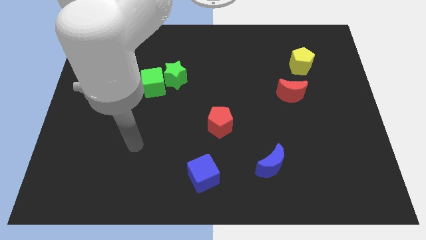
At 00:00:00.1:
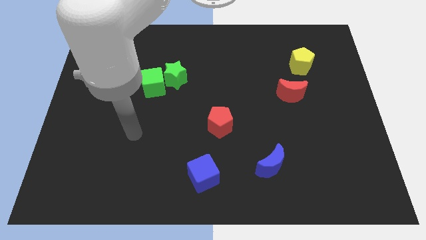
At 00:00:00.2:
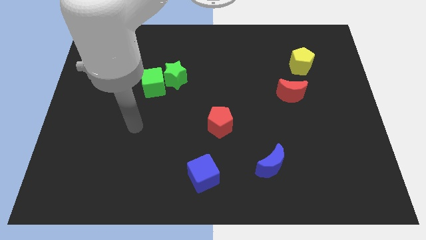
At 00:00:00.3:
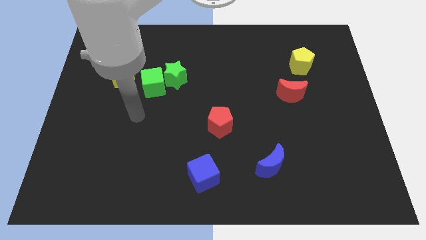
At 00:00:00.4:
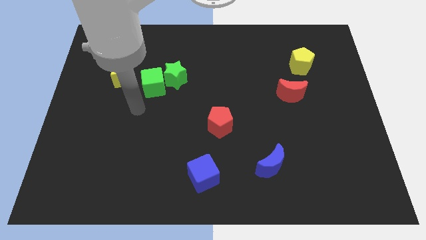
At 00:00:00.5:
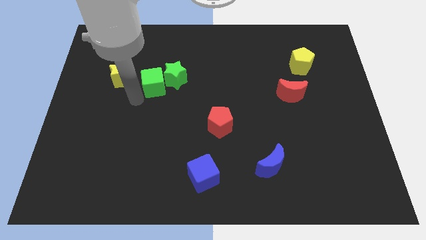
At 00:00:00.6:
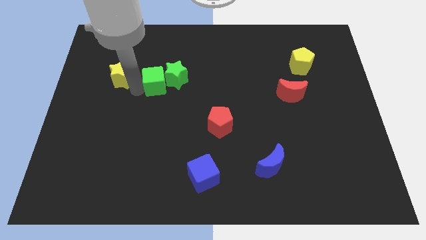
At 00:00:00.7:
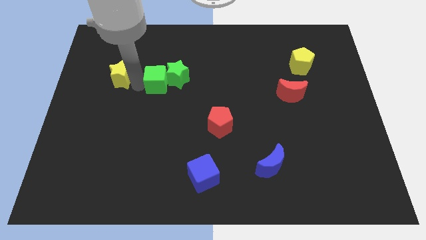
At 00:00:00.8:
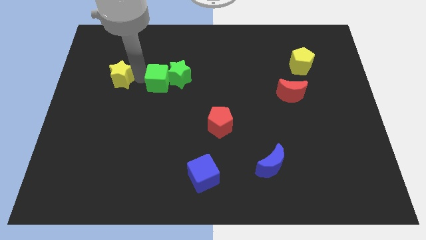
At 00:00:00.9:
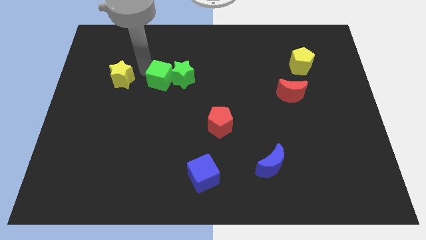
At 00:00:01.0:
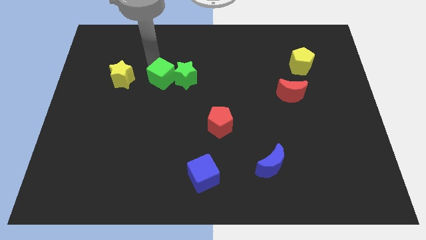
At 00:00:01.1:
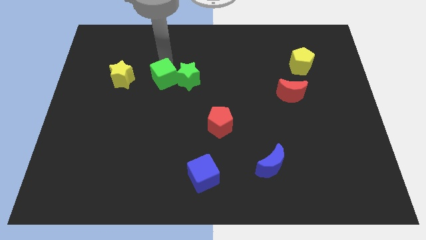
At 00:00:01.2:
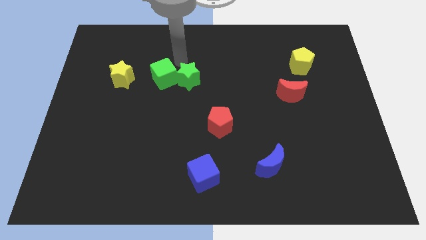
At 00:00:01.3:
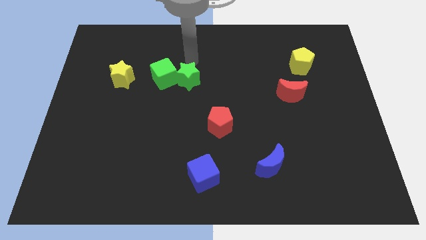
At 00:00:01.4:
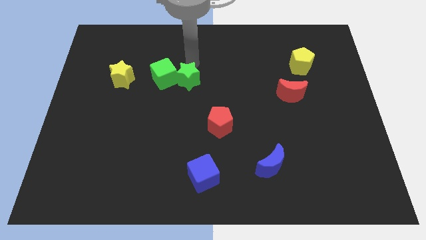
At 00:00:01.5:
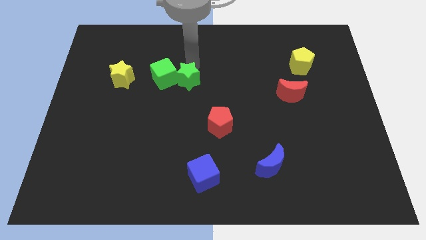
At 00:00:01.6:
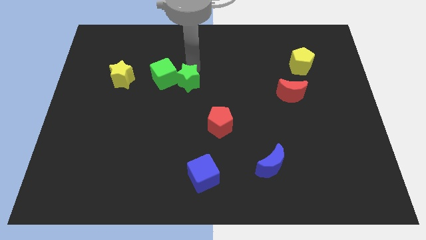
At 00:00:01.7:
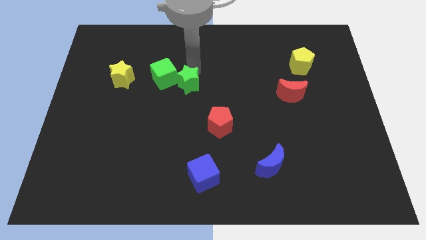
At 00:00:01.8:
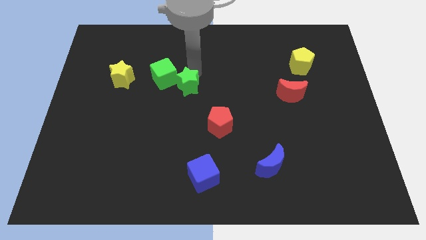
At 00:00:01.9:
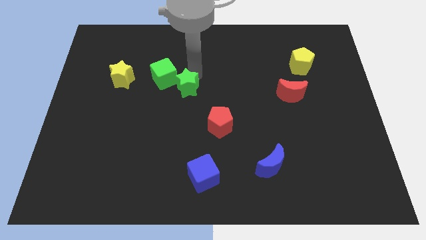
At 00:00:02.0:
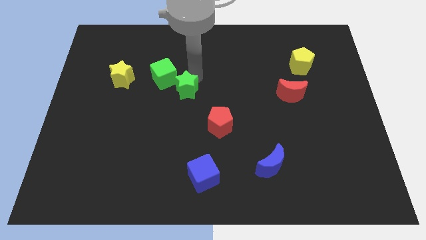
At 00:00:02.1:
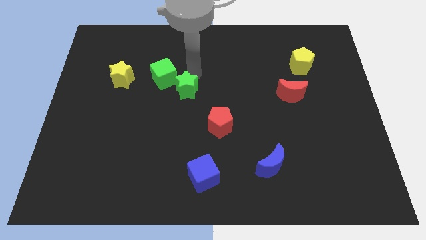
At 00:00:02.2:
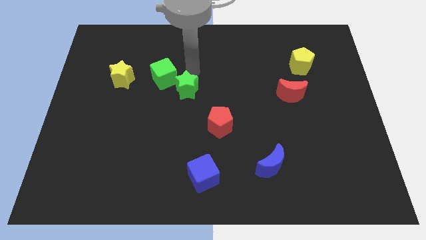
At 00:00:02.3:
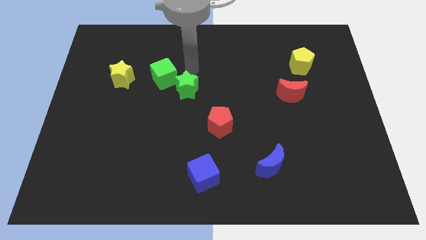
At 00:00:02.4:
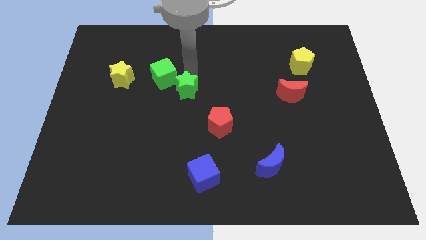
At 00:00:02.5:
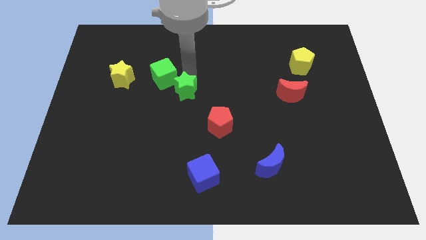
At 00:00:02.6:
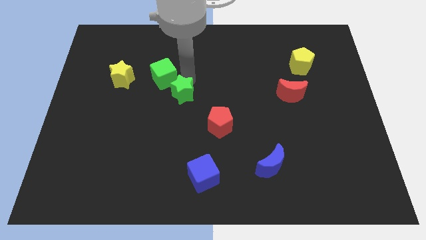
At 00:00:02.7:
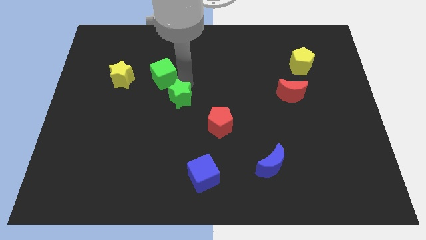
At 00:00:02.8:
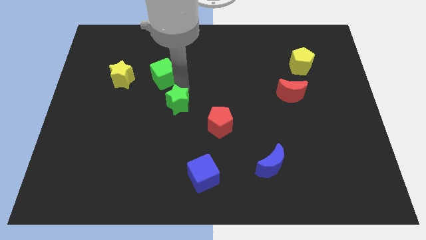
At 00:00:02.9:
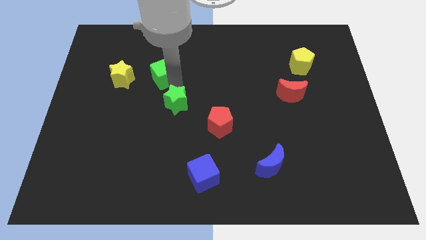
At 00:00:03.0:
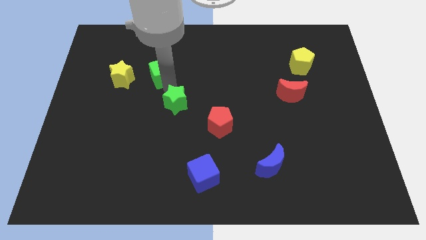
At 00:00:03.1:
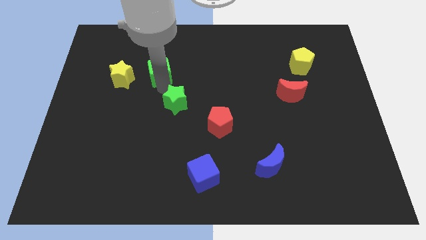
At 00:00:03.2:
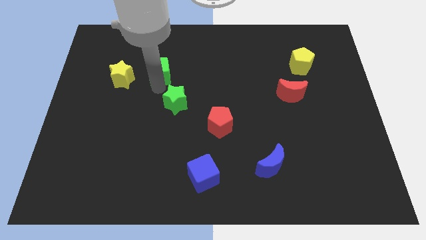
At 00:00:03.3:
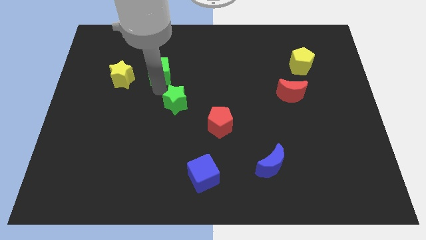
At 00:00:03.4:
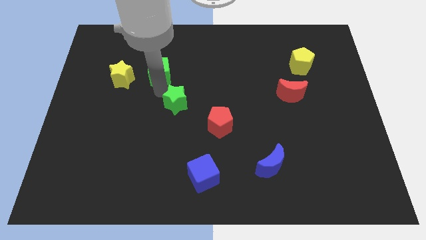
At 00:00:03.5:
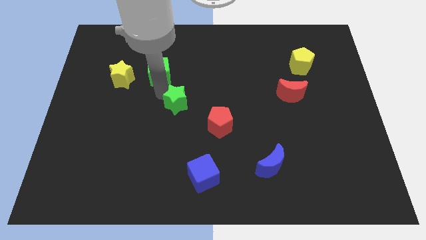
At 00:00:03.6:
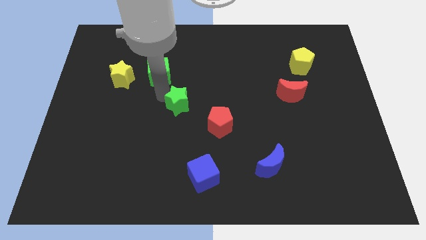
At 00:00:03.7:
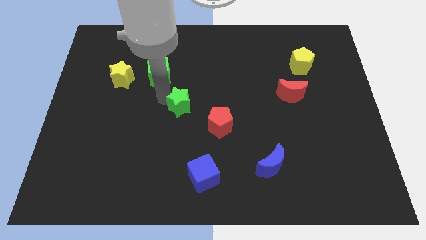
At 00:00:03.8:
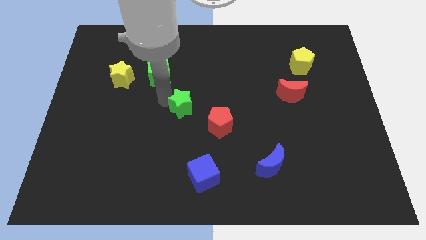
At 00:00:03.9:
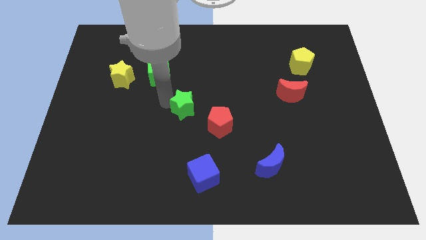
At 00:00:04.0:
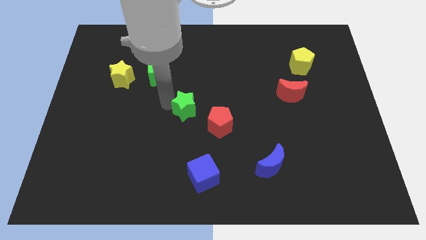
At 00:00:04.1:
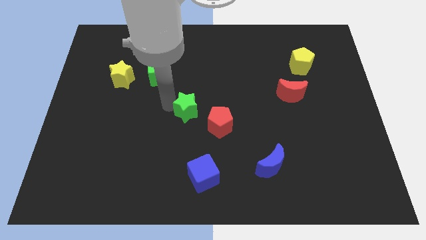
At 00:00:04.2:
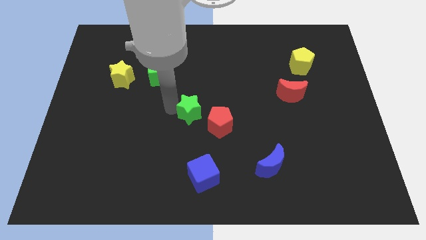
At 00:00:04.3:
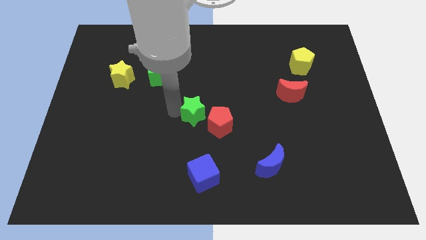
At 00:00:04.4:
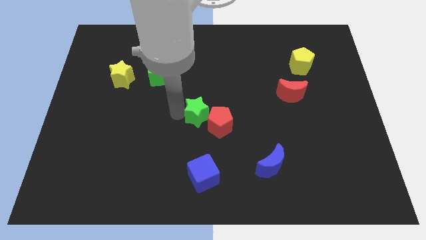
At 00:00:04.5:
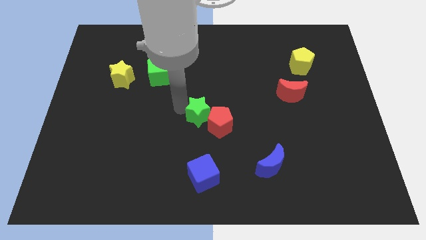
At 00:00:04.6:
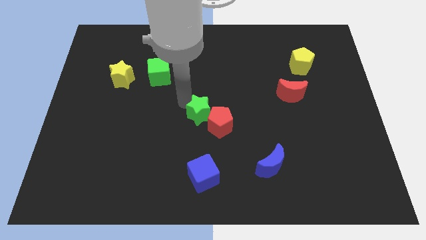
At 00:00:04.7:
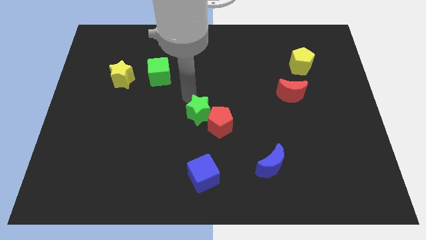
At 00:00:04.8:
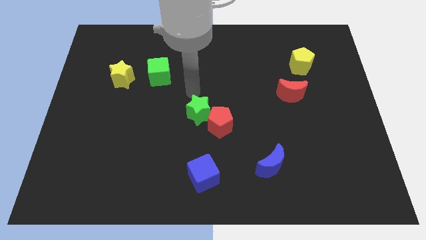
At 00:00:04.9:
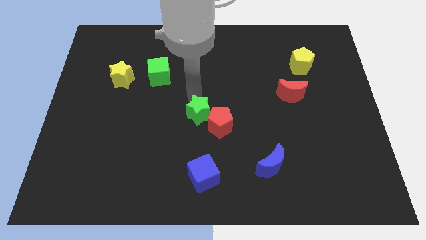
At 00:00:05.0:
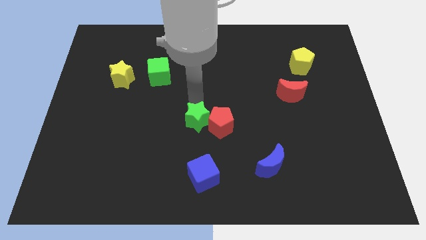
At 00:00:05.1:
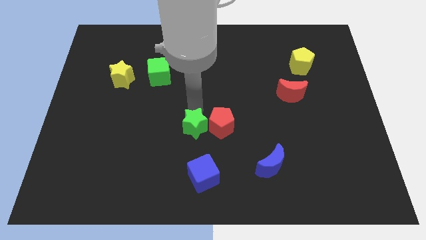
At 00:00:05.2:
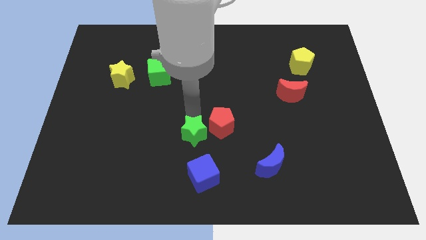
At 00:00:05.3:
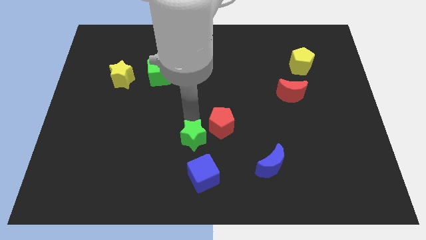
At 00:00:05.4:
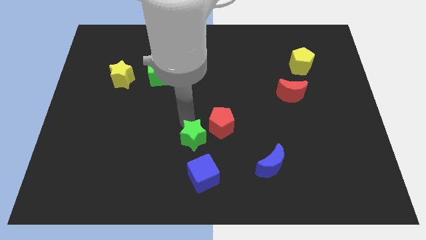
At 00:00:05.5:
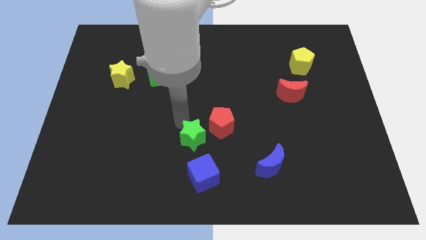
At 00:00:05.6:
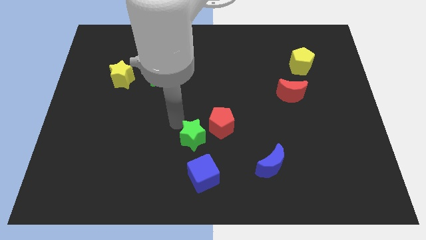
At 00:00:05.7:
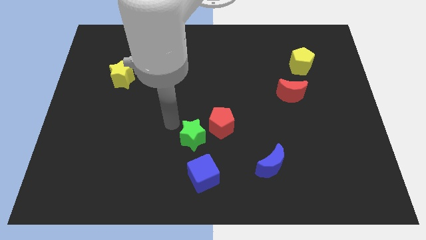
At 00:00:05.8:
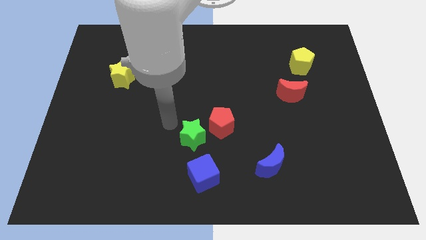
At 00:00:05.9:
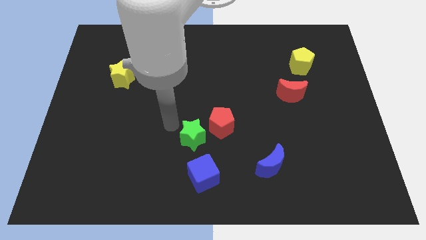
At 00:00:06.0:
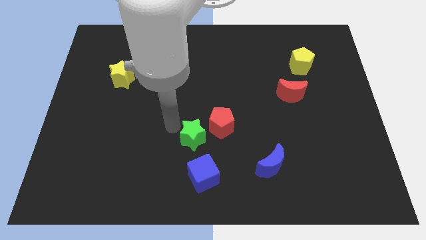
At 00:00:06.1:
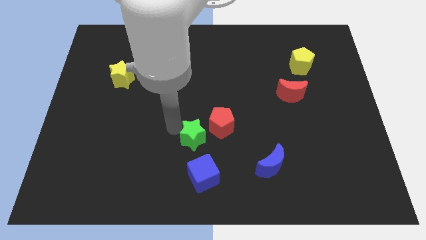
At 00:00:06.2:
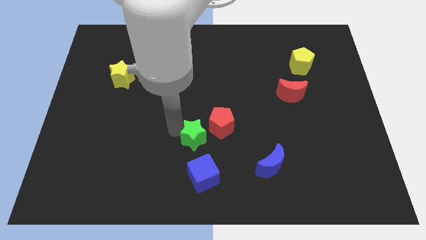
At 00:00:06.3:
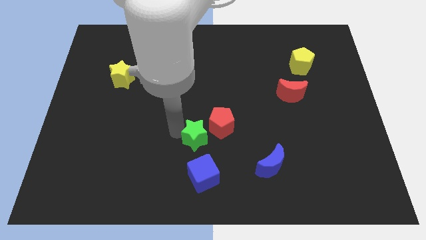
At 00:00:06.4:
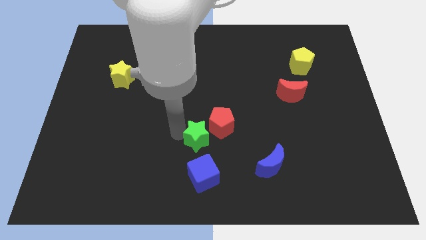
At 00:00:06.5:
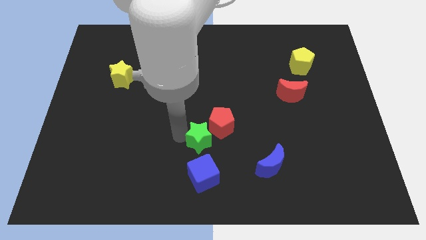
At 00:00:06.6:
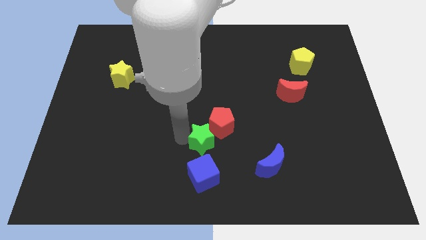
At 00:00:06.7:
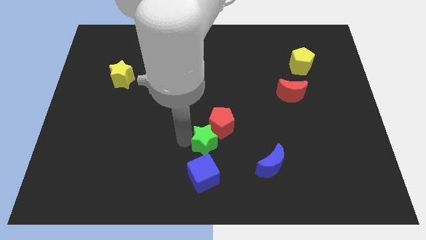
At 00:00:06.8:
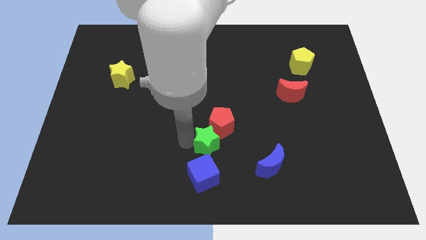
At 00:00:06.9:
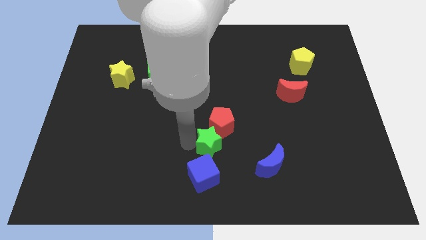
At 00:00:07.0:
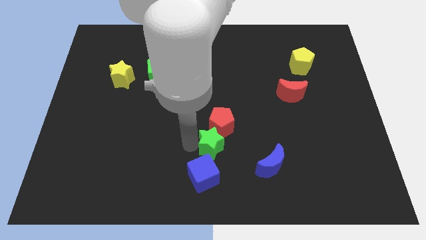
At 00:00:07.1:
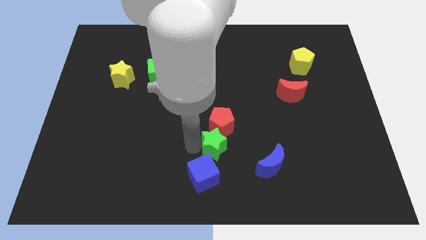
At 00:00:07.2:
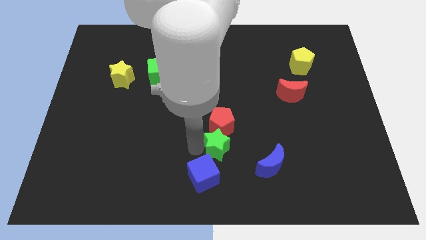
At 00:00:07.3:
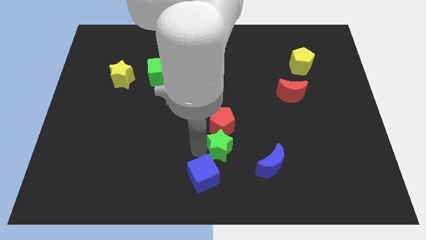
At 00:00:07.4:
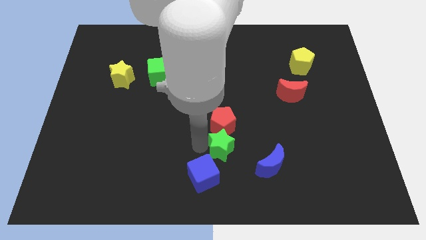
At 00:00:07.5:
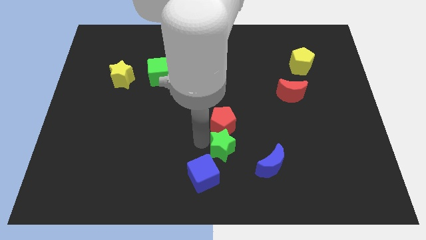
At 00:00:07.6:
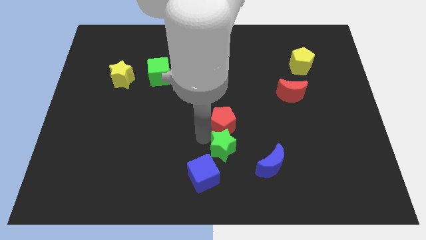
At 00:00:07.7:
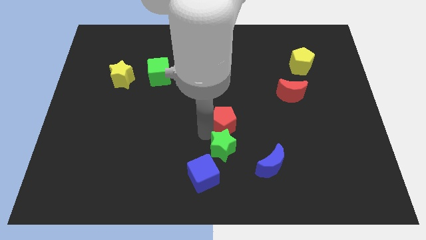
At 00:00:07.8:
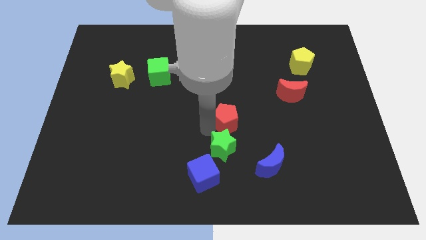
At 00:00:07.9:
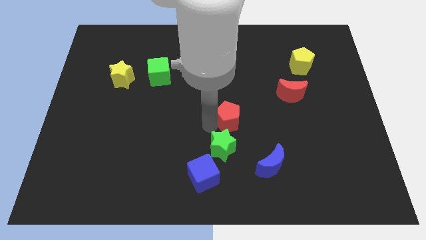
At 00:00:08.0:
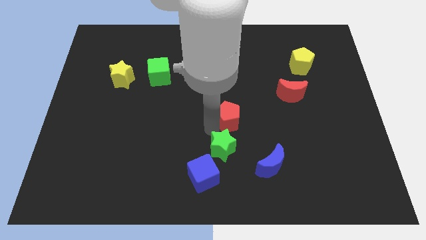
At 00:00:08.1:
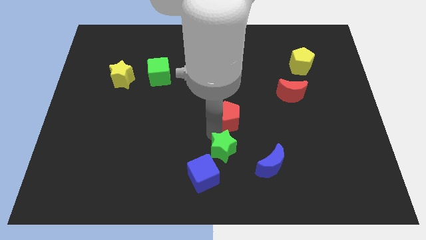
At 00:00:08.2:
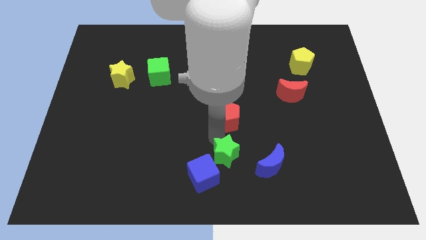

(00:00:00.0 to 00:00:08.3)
put the green star to the right side of the blue cube

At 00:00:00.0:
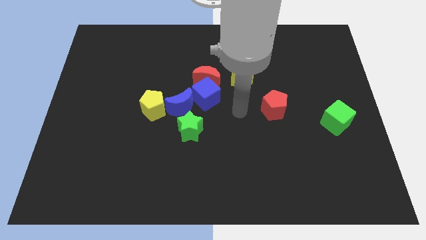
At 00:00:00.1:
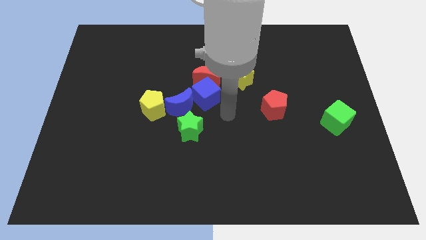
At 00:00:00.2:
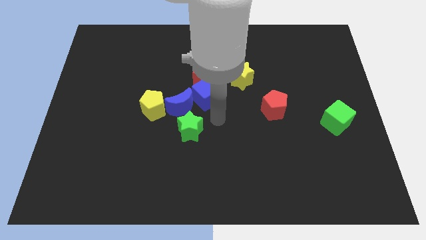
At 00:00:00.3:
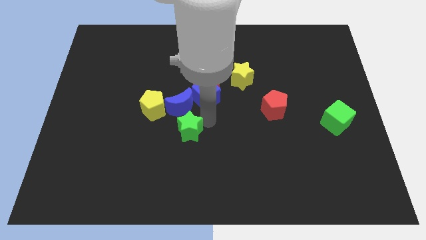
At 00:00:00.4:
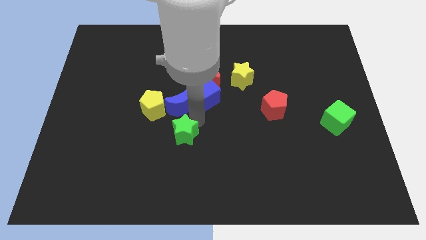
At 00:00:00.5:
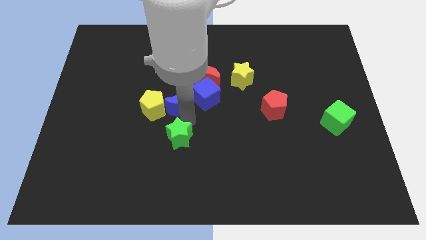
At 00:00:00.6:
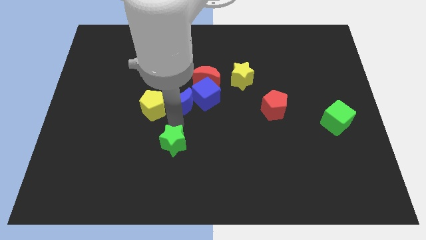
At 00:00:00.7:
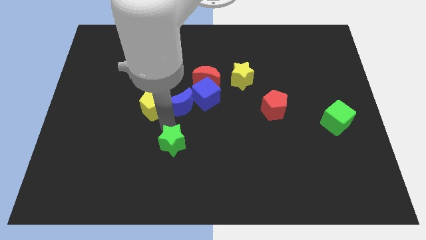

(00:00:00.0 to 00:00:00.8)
push the yellow pentagon to the top side of the green star
